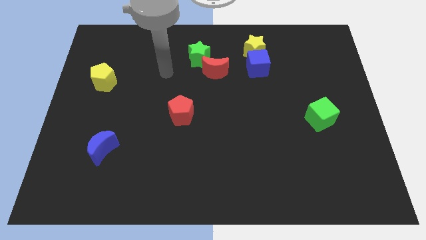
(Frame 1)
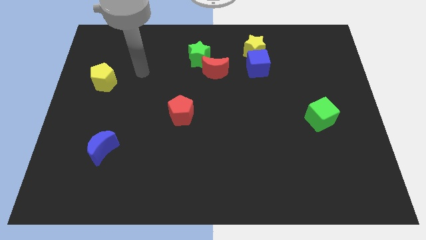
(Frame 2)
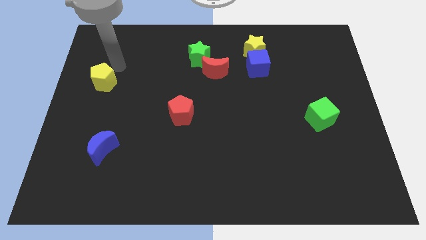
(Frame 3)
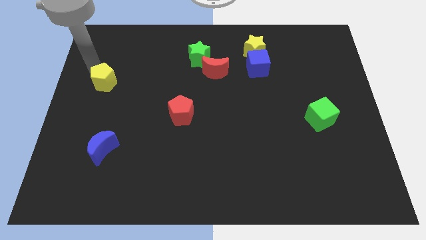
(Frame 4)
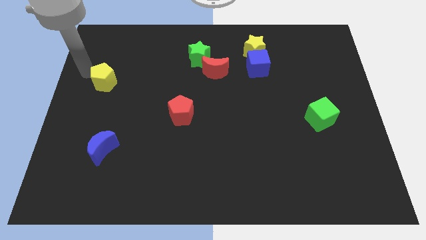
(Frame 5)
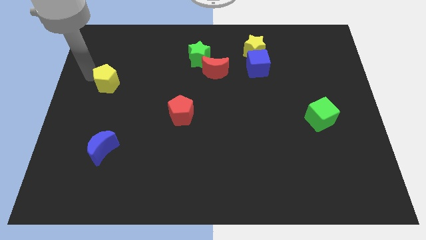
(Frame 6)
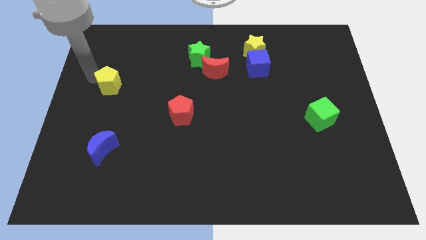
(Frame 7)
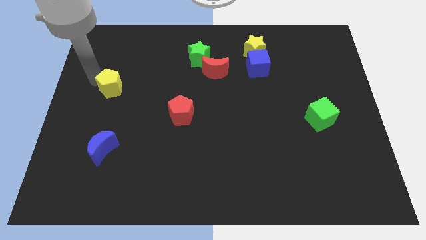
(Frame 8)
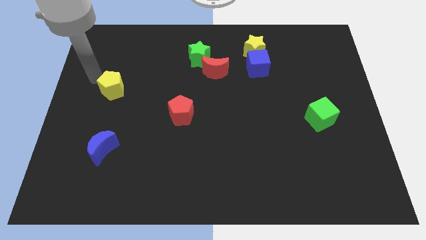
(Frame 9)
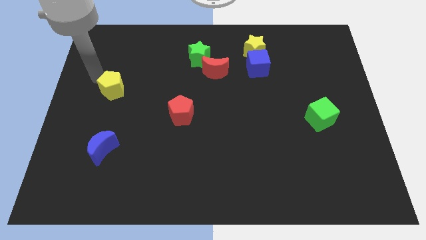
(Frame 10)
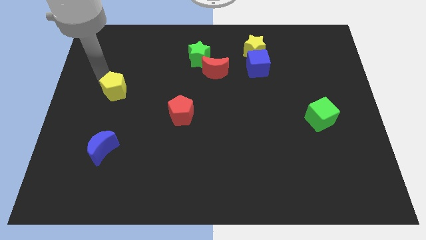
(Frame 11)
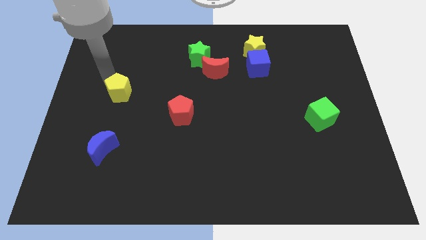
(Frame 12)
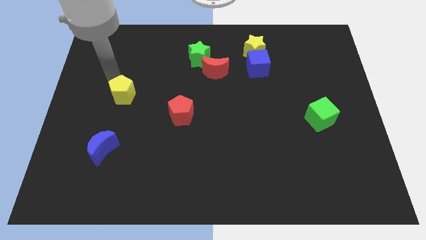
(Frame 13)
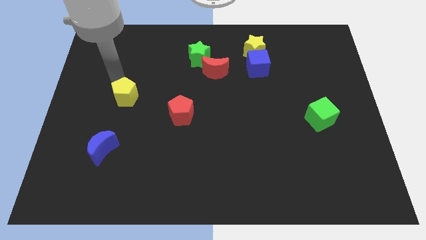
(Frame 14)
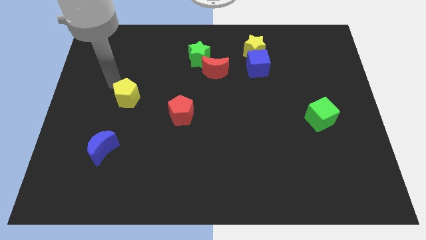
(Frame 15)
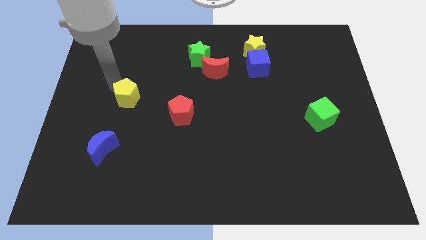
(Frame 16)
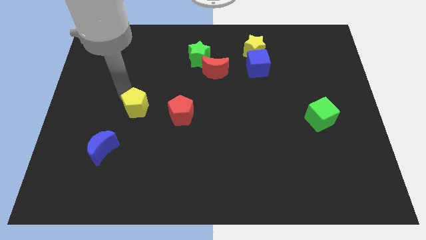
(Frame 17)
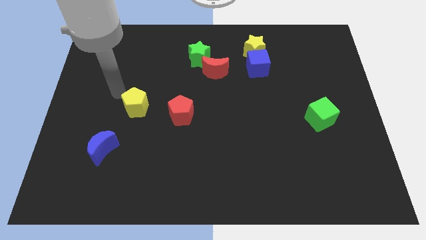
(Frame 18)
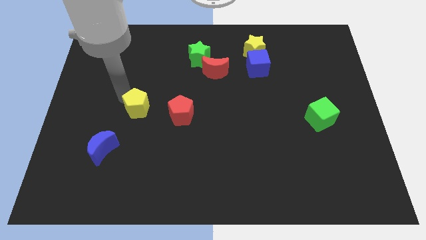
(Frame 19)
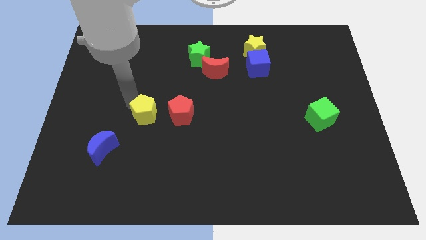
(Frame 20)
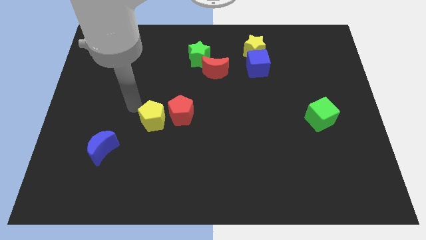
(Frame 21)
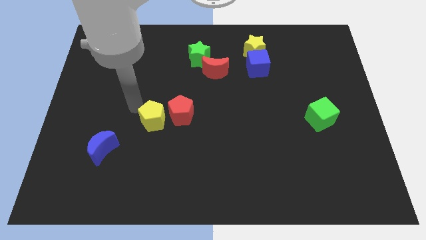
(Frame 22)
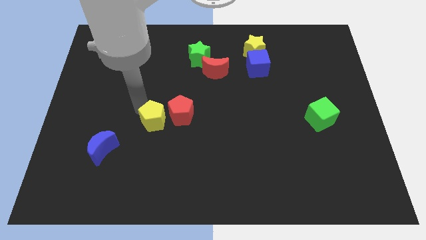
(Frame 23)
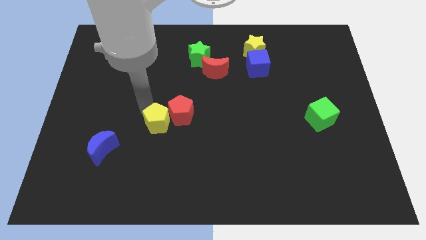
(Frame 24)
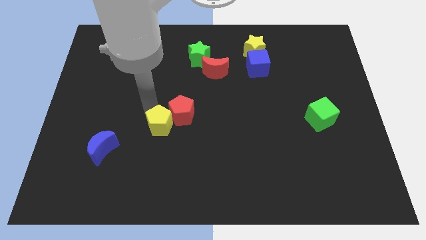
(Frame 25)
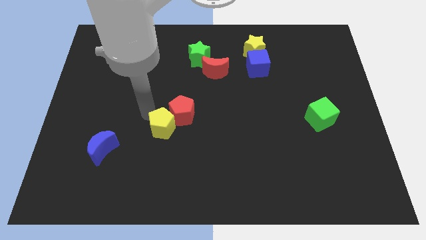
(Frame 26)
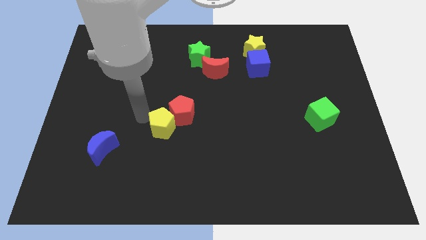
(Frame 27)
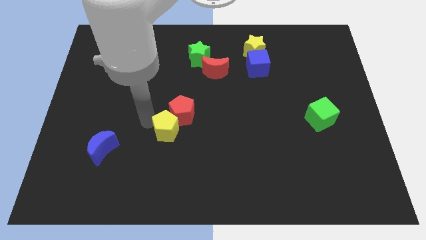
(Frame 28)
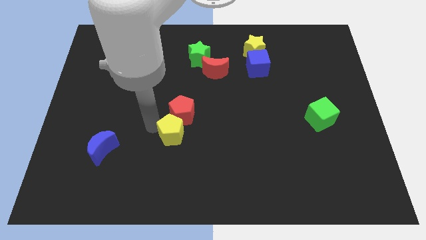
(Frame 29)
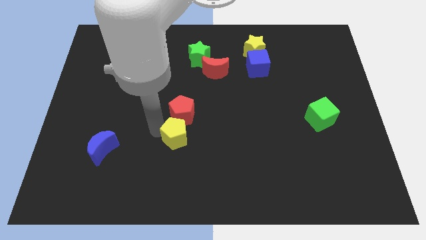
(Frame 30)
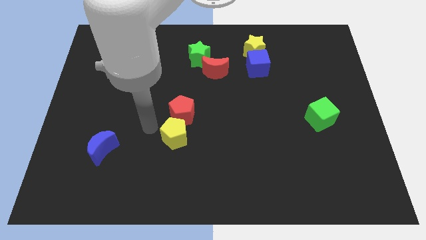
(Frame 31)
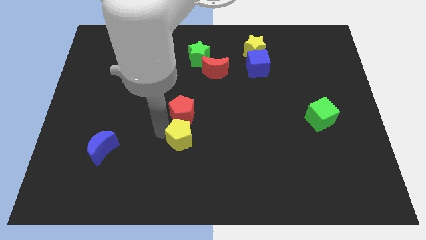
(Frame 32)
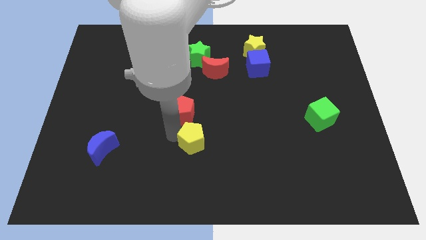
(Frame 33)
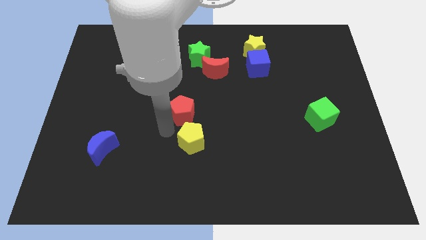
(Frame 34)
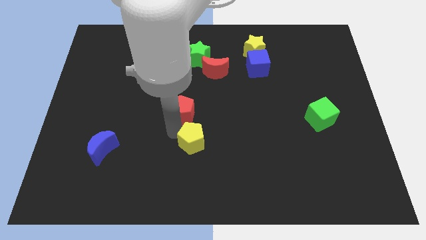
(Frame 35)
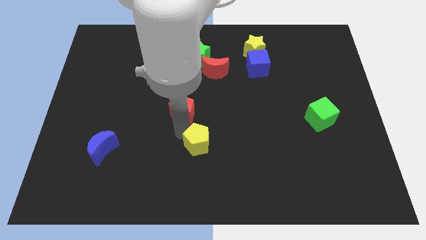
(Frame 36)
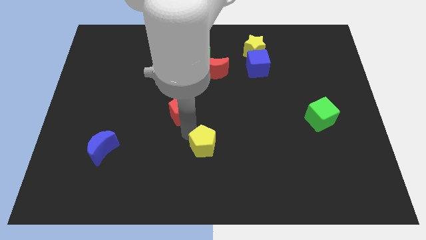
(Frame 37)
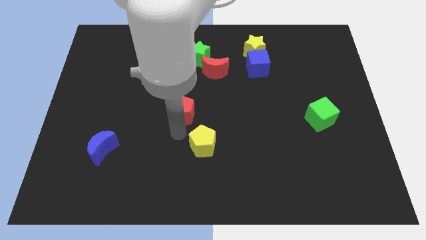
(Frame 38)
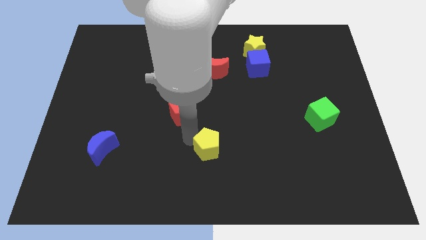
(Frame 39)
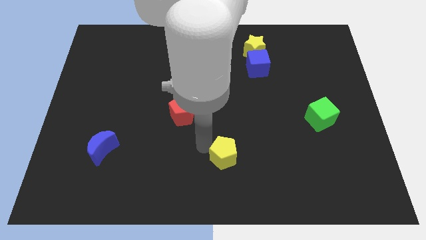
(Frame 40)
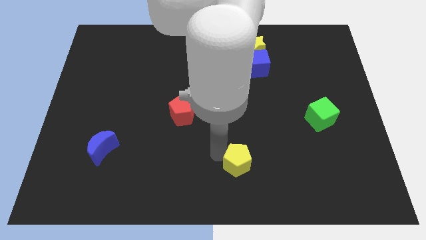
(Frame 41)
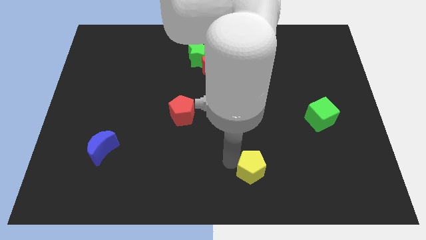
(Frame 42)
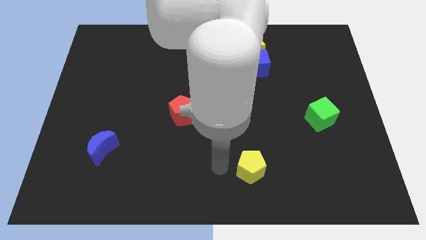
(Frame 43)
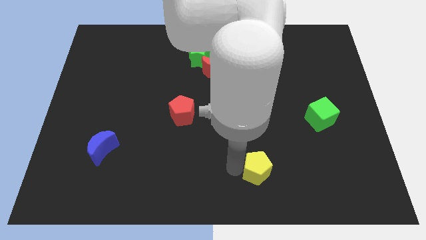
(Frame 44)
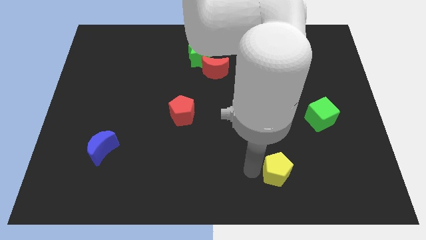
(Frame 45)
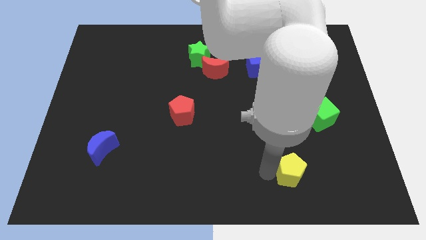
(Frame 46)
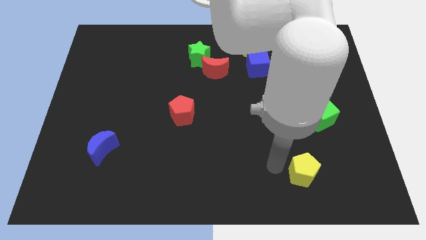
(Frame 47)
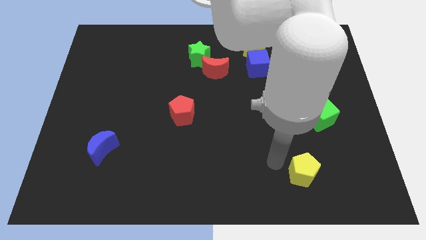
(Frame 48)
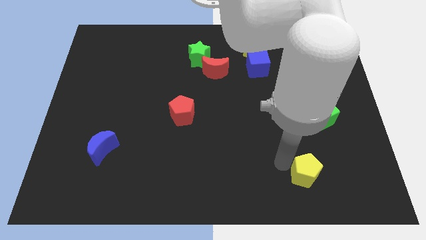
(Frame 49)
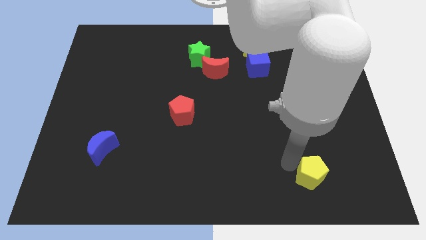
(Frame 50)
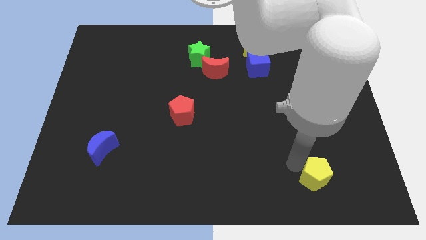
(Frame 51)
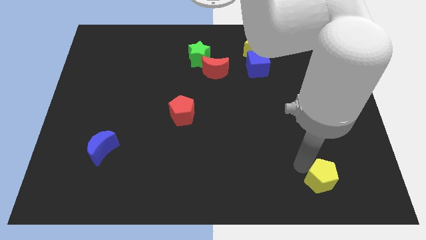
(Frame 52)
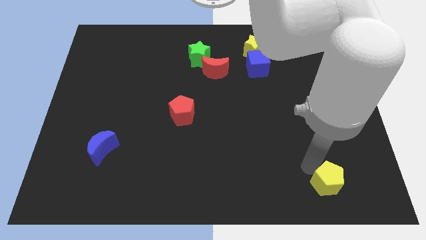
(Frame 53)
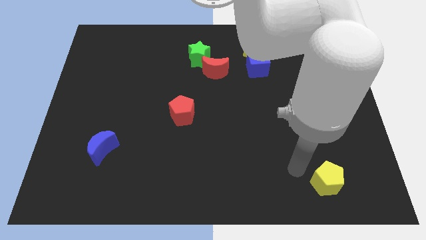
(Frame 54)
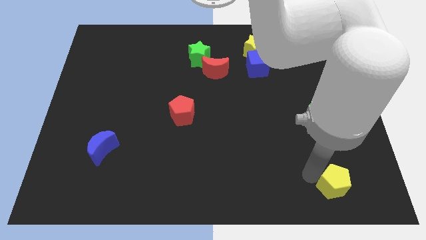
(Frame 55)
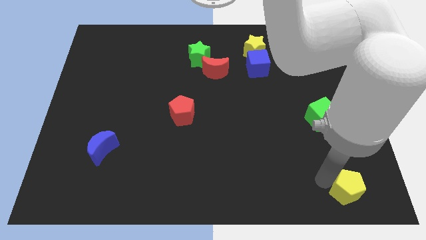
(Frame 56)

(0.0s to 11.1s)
push the yellow pentagon to the lower right corner

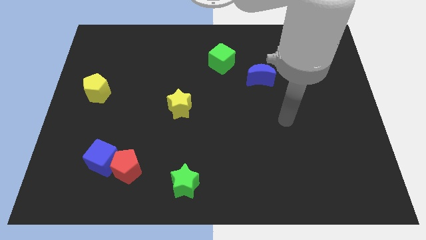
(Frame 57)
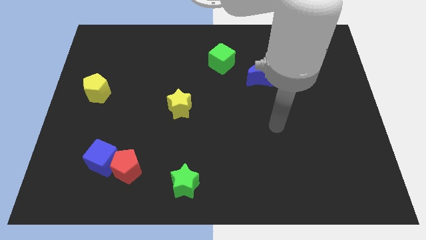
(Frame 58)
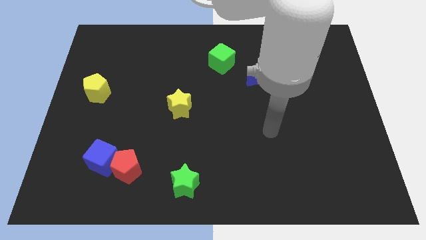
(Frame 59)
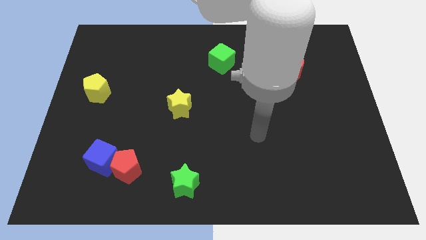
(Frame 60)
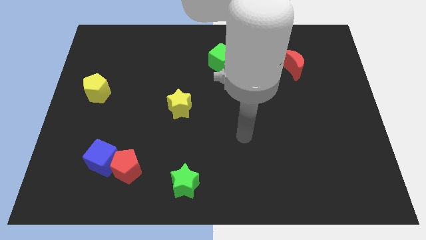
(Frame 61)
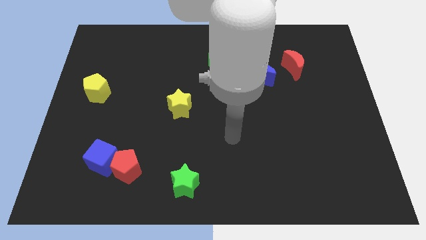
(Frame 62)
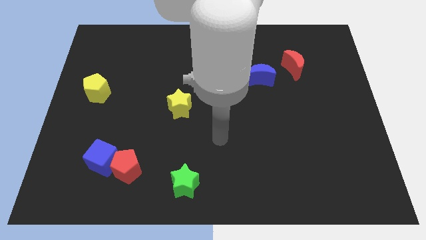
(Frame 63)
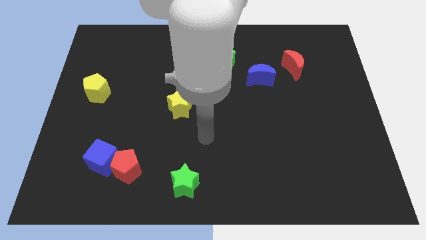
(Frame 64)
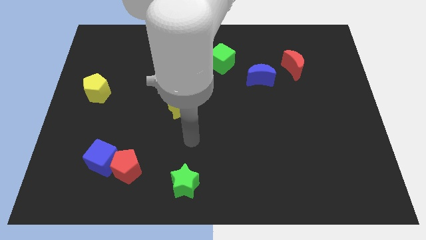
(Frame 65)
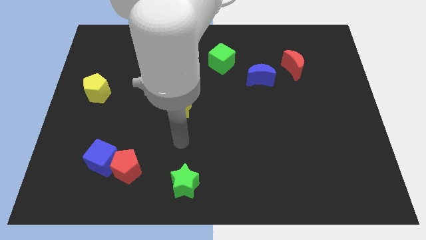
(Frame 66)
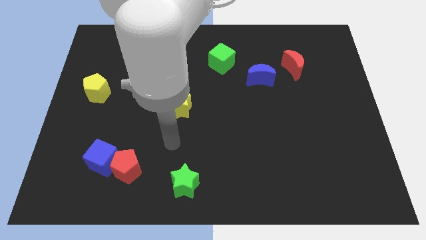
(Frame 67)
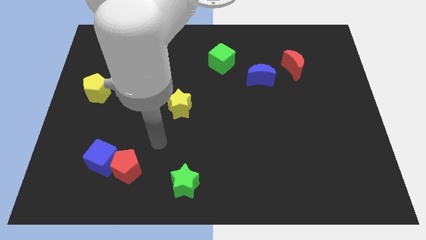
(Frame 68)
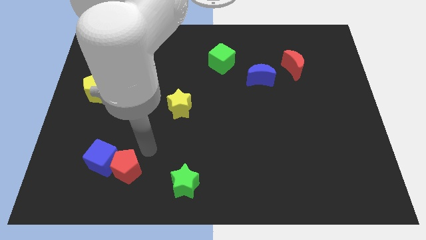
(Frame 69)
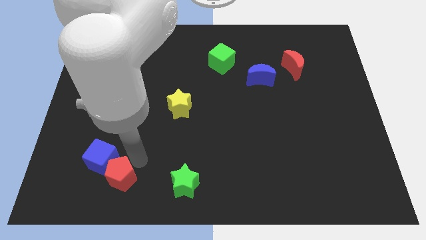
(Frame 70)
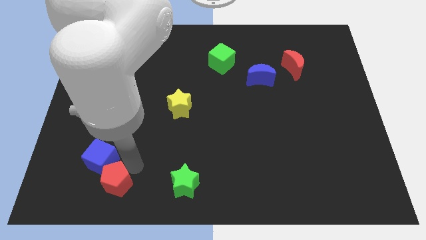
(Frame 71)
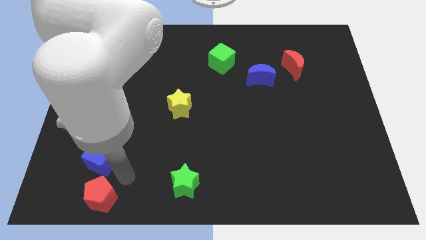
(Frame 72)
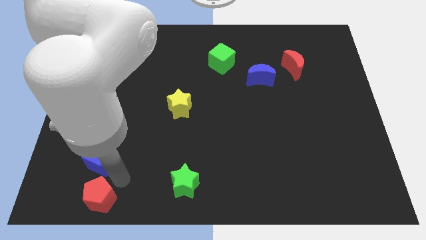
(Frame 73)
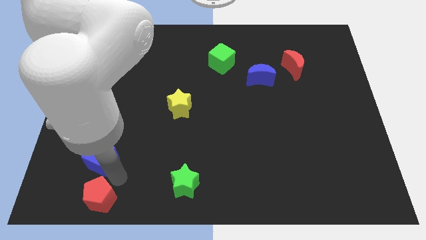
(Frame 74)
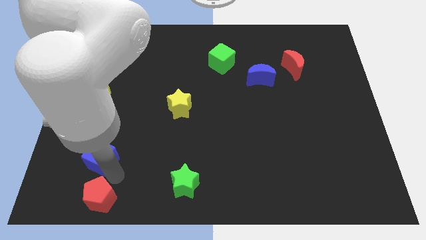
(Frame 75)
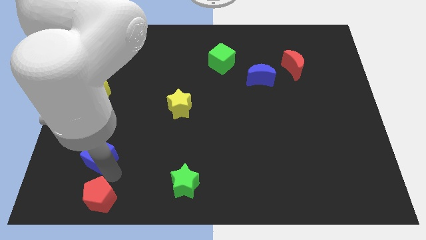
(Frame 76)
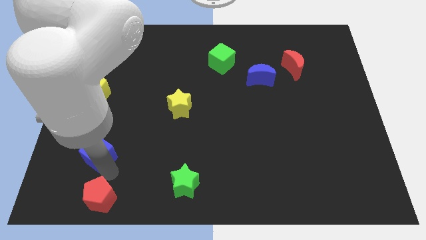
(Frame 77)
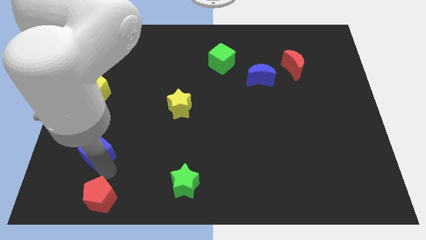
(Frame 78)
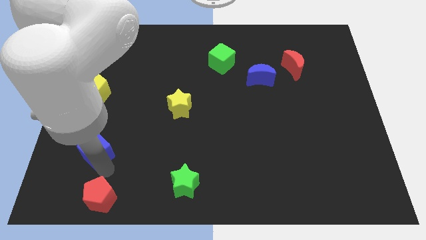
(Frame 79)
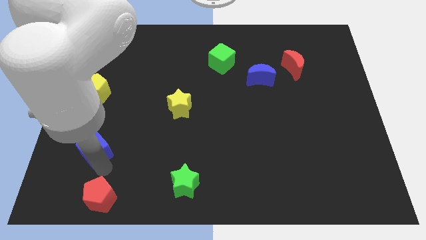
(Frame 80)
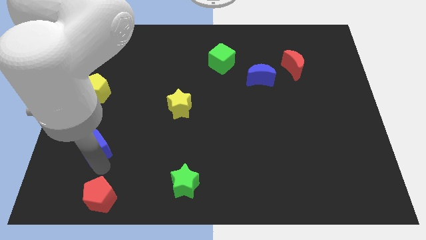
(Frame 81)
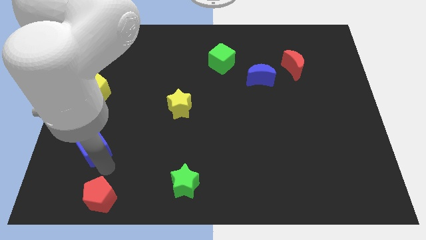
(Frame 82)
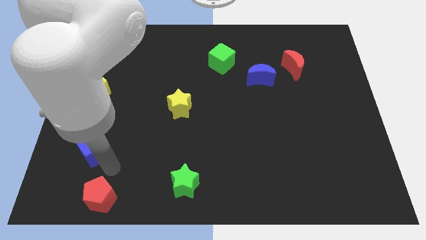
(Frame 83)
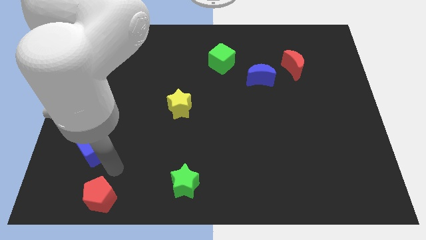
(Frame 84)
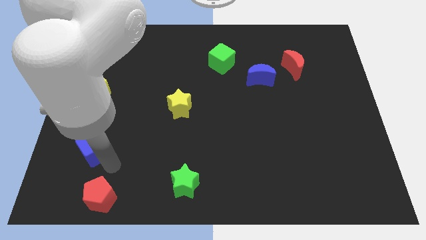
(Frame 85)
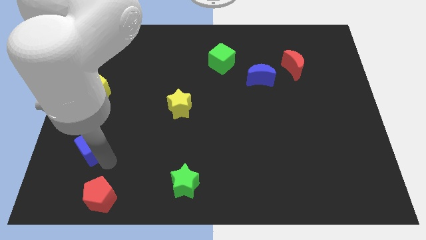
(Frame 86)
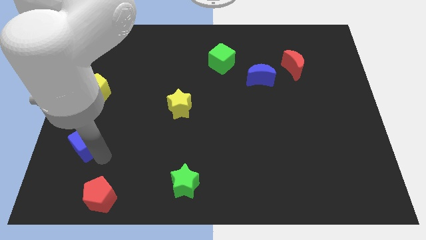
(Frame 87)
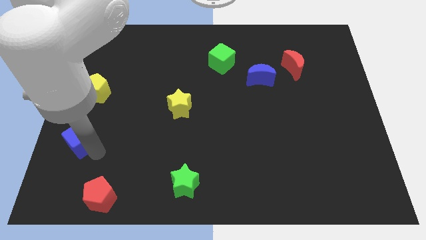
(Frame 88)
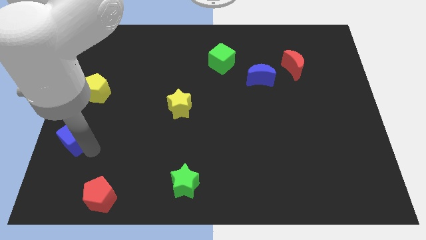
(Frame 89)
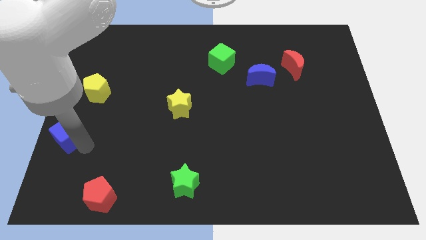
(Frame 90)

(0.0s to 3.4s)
push the blue cube to the center left
